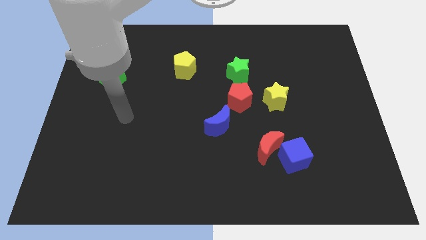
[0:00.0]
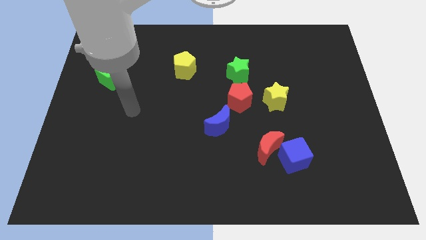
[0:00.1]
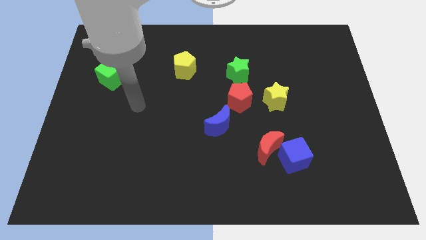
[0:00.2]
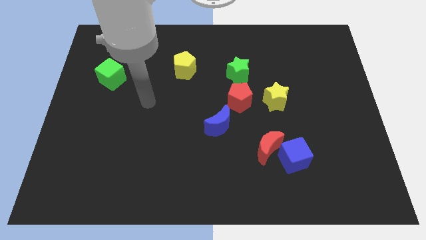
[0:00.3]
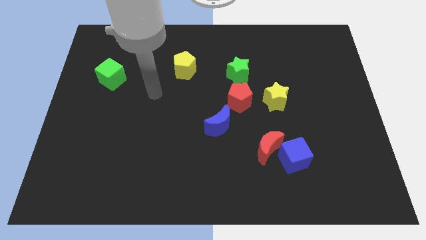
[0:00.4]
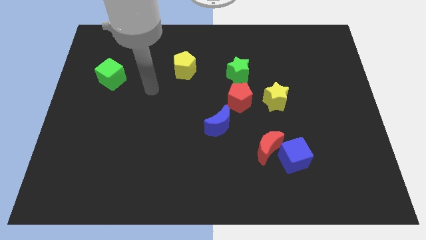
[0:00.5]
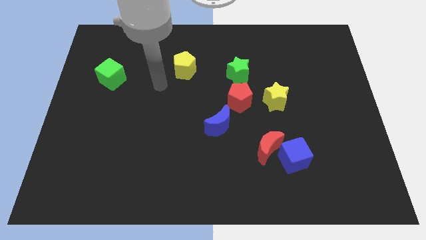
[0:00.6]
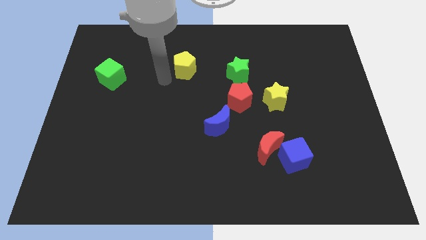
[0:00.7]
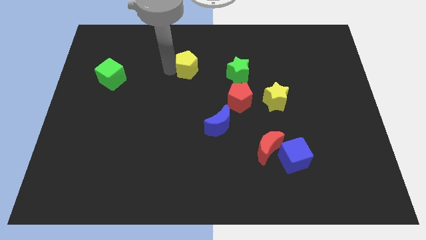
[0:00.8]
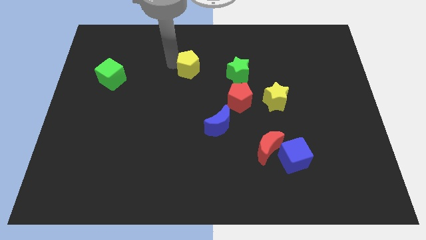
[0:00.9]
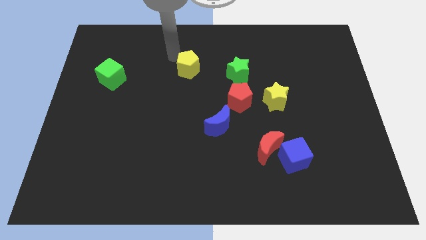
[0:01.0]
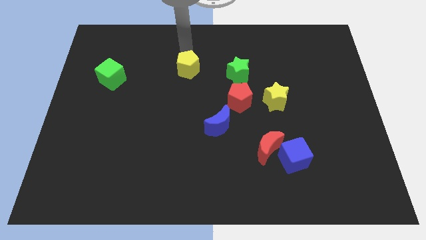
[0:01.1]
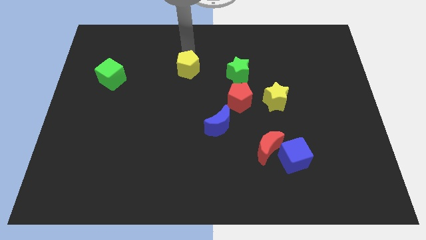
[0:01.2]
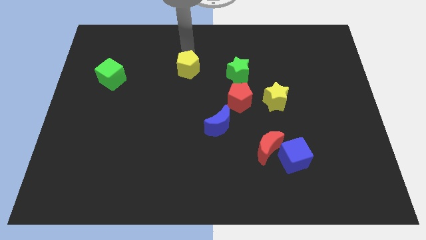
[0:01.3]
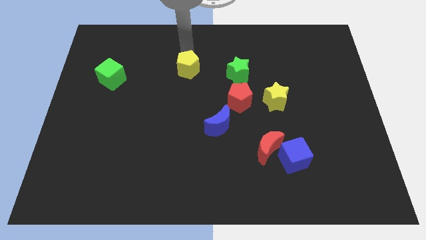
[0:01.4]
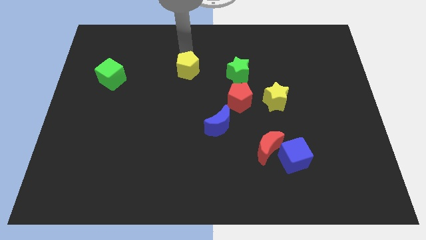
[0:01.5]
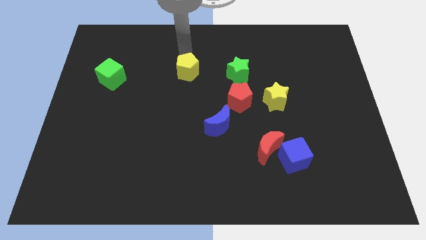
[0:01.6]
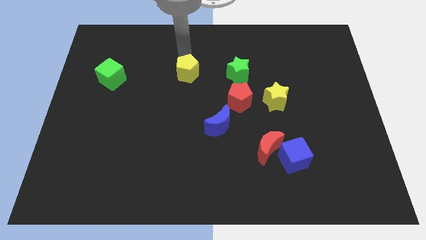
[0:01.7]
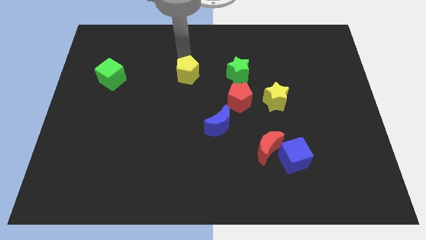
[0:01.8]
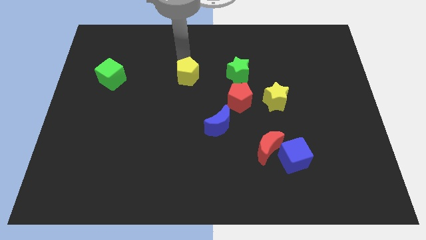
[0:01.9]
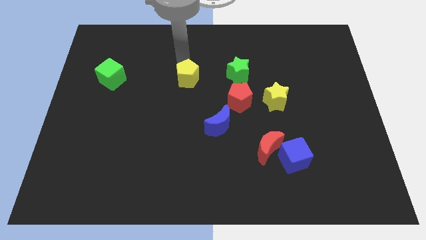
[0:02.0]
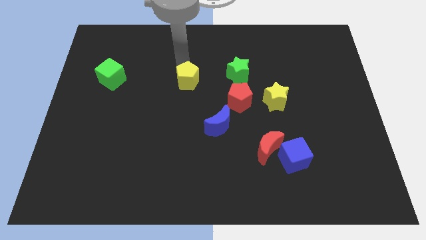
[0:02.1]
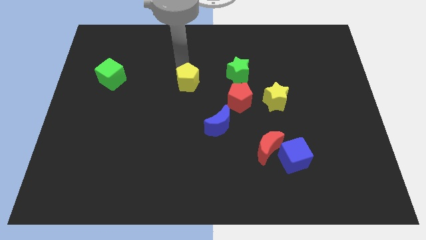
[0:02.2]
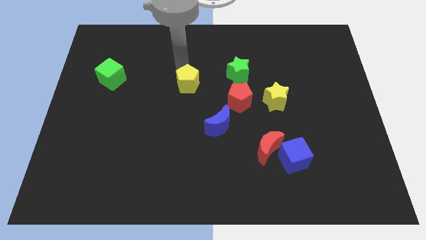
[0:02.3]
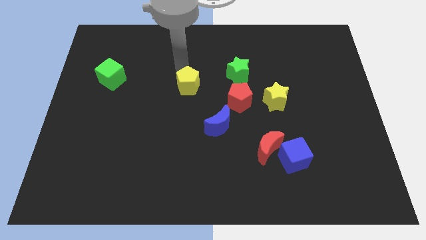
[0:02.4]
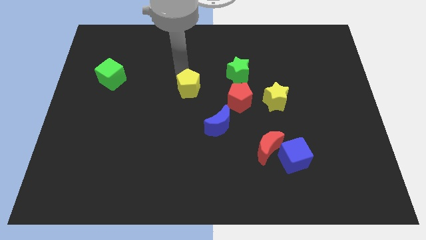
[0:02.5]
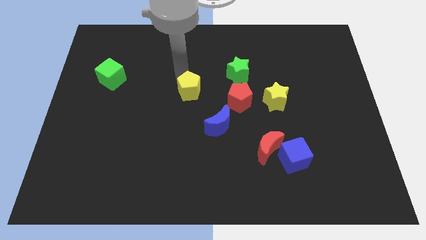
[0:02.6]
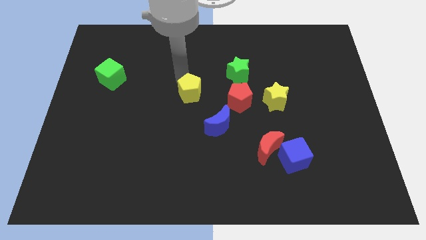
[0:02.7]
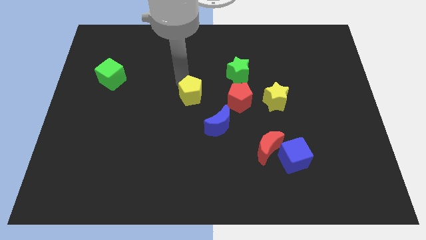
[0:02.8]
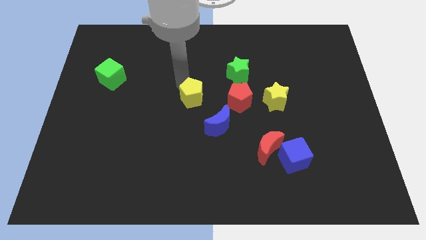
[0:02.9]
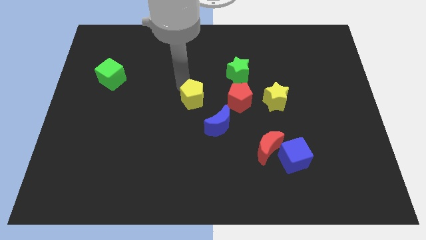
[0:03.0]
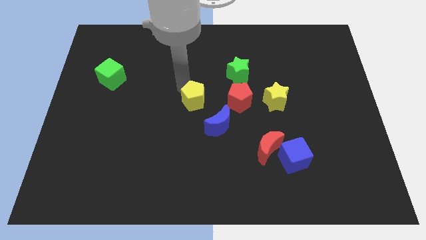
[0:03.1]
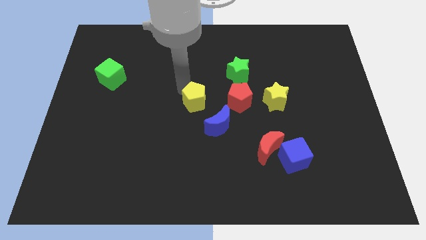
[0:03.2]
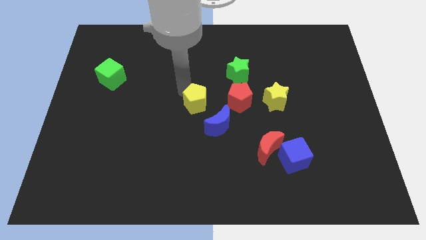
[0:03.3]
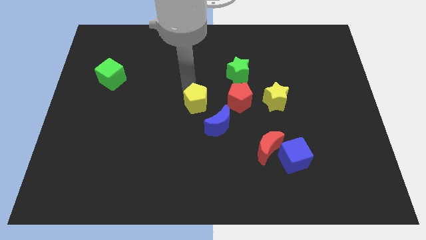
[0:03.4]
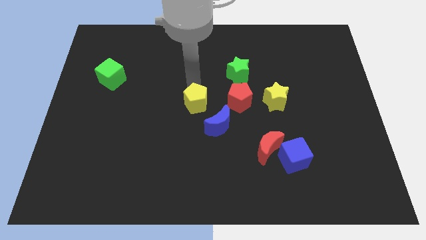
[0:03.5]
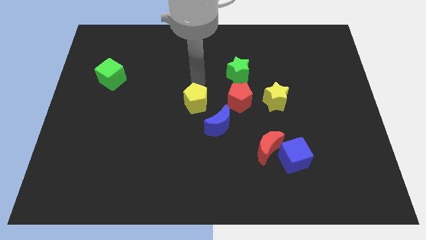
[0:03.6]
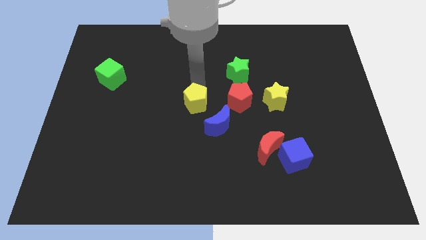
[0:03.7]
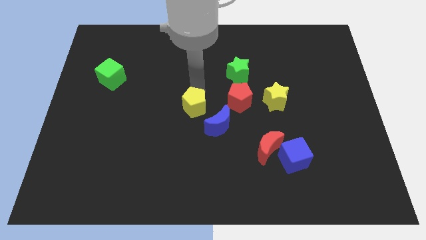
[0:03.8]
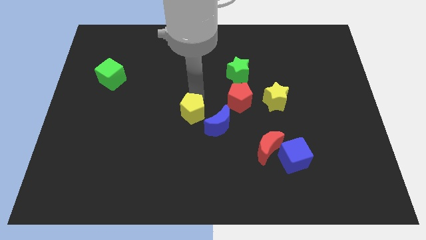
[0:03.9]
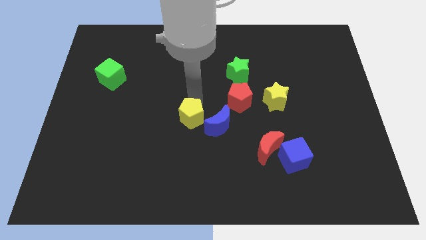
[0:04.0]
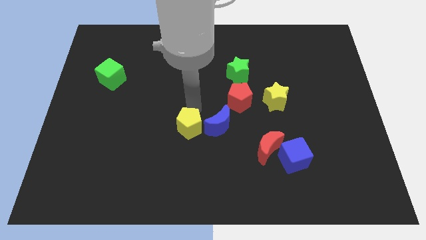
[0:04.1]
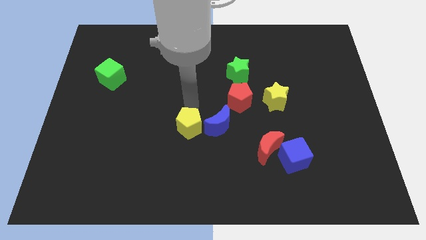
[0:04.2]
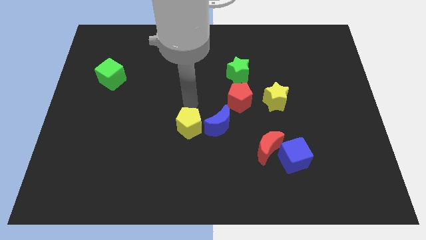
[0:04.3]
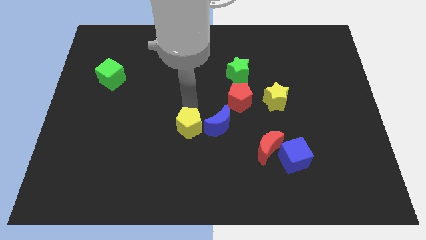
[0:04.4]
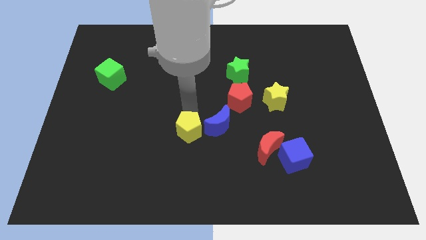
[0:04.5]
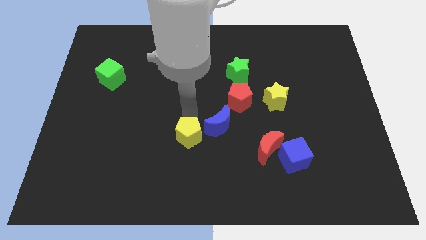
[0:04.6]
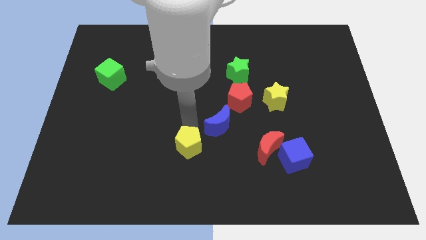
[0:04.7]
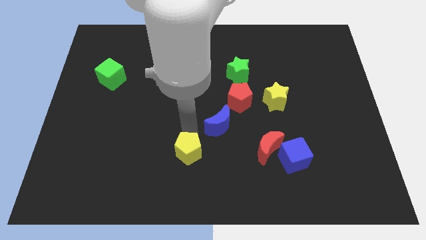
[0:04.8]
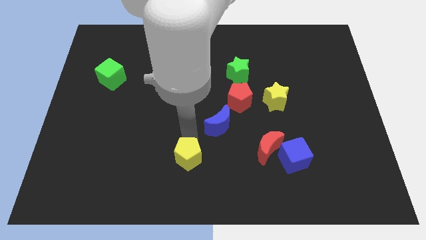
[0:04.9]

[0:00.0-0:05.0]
slide the yellow pentagon to the bottom side

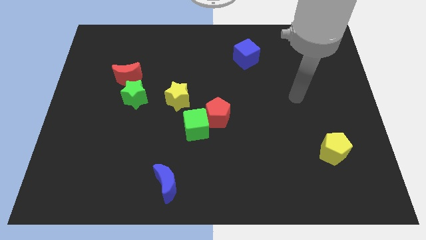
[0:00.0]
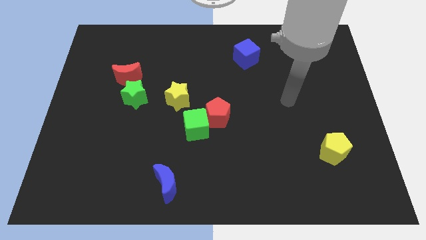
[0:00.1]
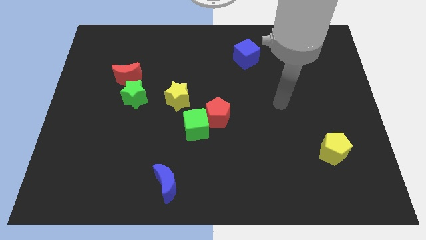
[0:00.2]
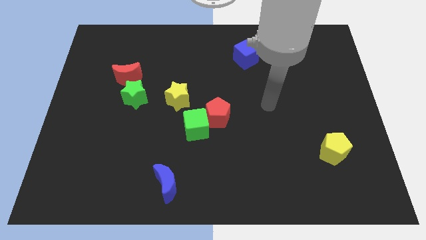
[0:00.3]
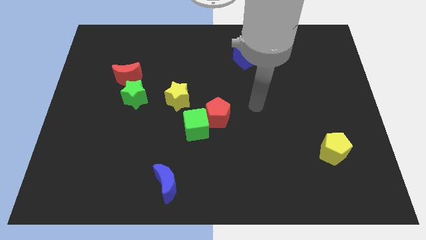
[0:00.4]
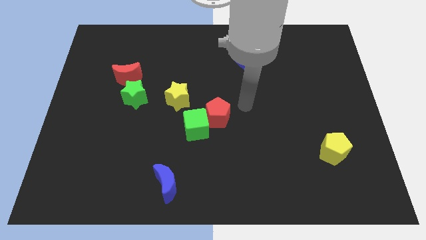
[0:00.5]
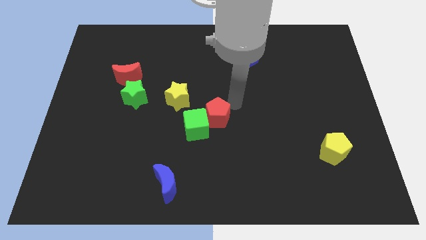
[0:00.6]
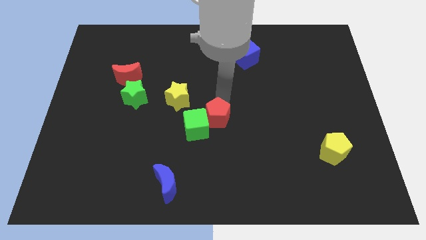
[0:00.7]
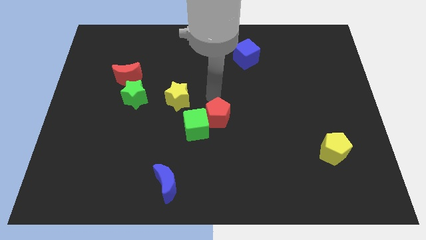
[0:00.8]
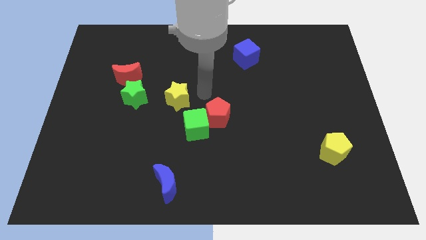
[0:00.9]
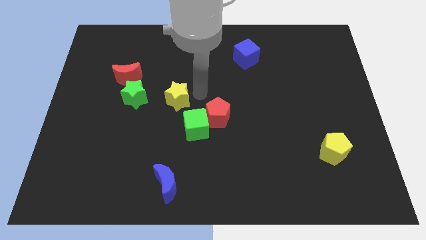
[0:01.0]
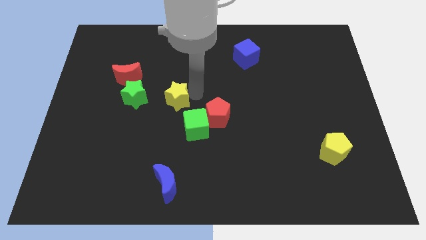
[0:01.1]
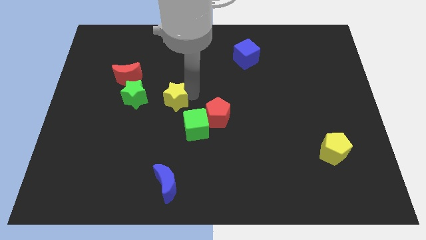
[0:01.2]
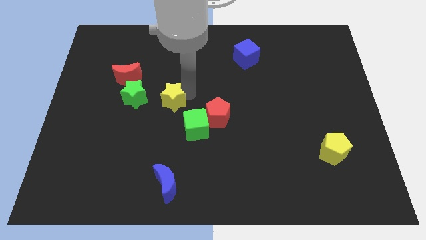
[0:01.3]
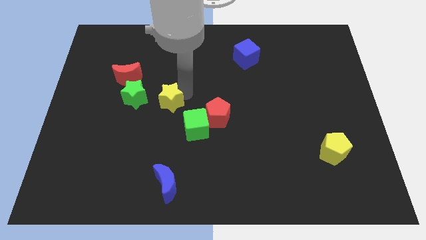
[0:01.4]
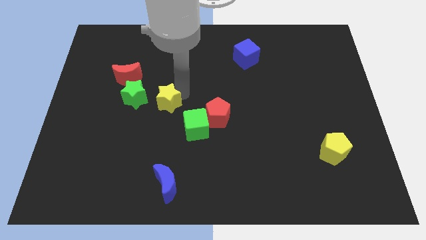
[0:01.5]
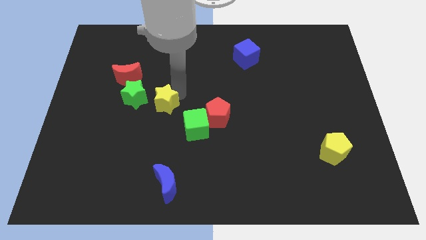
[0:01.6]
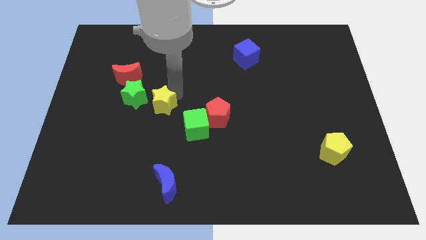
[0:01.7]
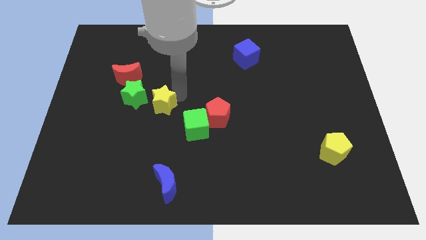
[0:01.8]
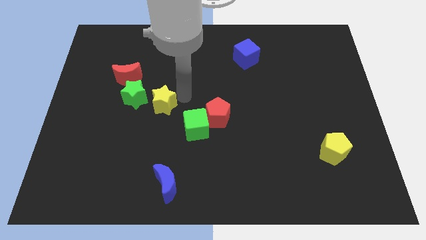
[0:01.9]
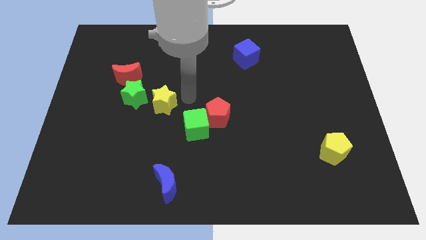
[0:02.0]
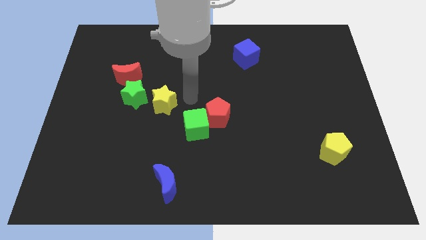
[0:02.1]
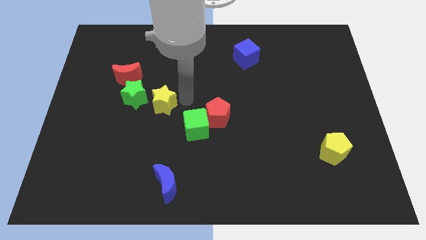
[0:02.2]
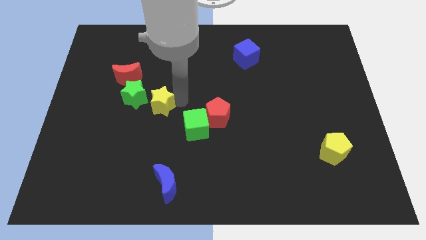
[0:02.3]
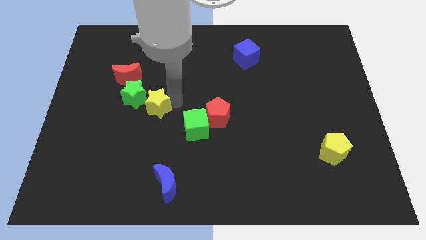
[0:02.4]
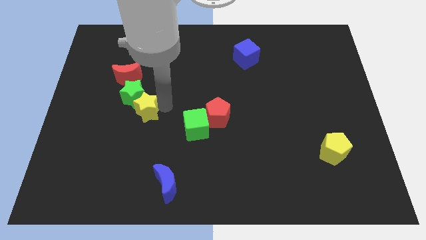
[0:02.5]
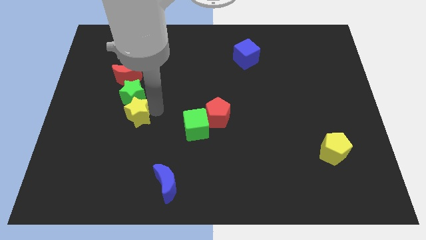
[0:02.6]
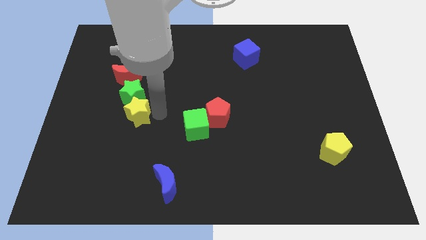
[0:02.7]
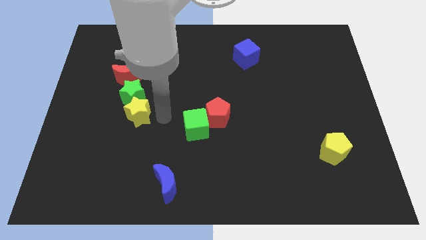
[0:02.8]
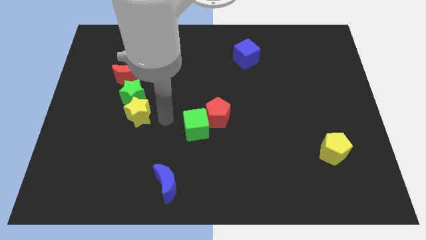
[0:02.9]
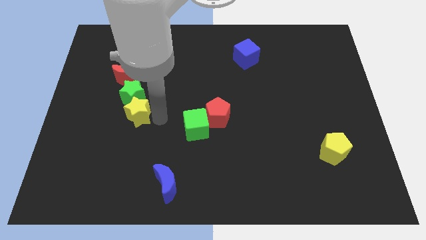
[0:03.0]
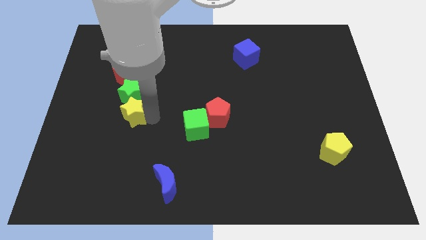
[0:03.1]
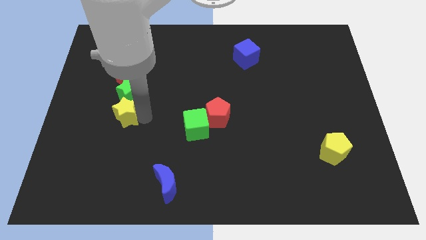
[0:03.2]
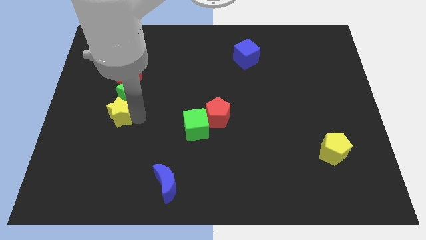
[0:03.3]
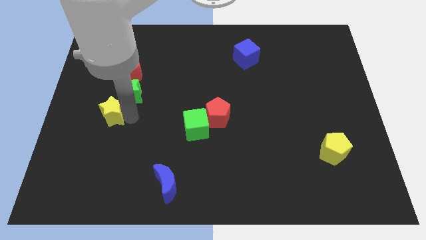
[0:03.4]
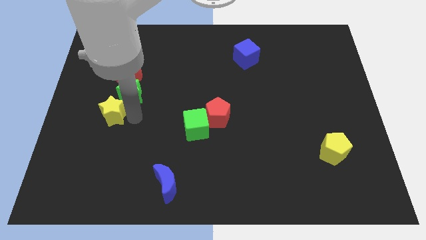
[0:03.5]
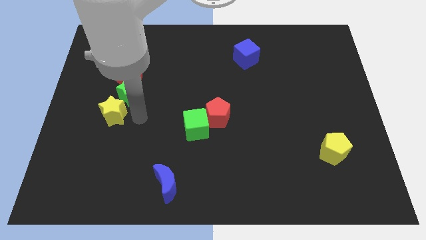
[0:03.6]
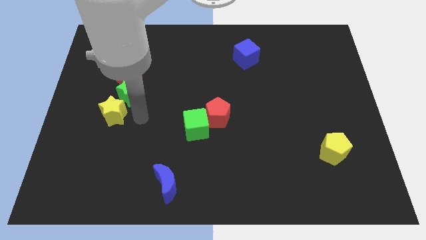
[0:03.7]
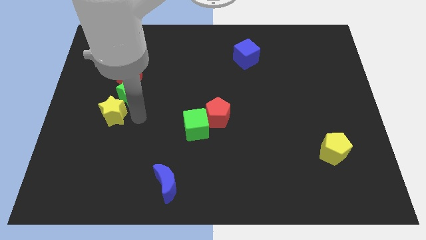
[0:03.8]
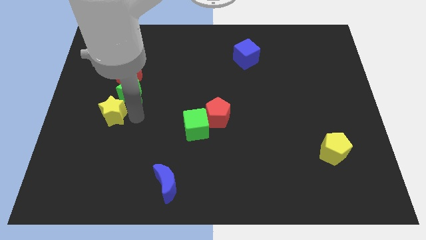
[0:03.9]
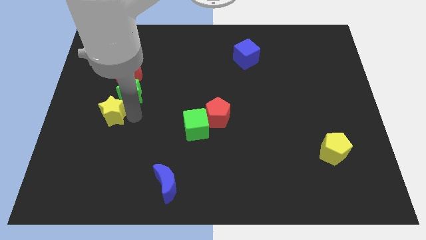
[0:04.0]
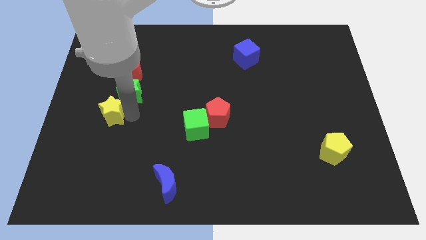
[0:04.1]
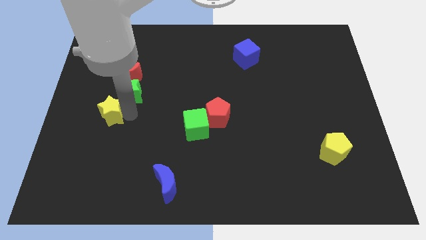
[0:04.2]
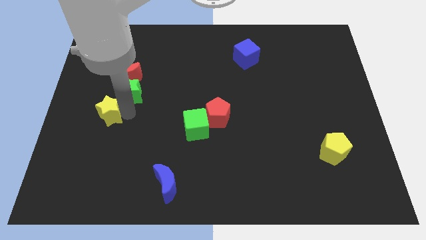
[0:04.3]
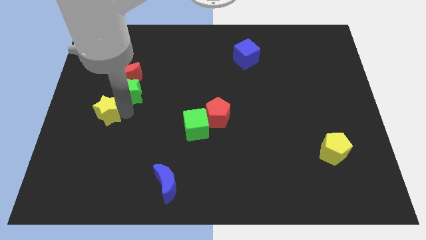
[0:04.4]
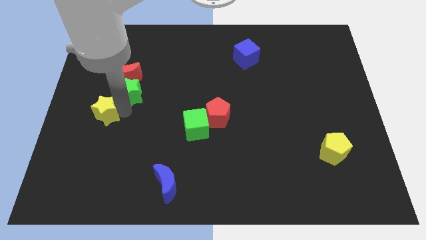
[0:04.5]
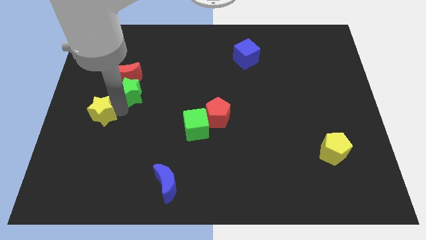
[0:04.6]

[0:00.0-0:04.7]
push the yellow star to the left side of the board
